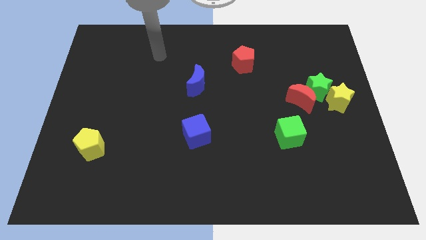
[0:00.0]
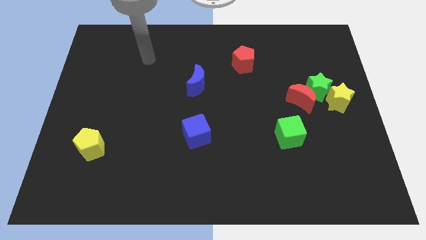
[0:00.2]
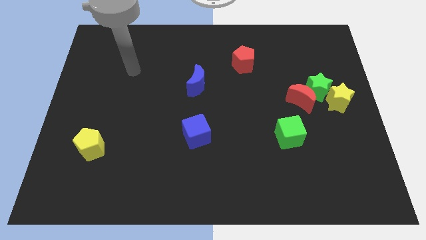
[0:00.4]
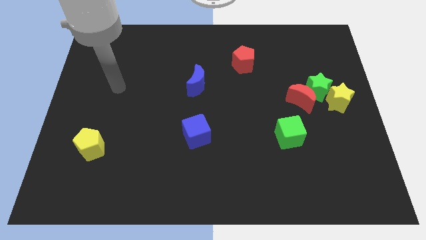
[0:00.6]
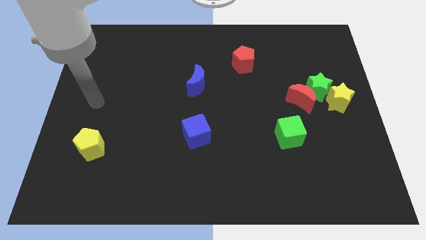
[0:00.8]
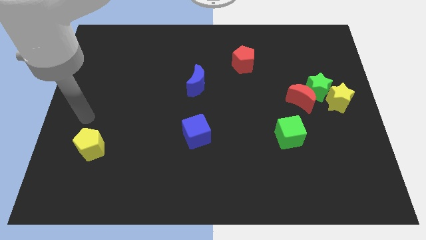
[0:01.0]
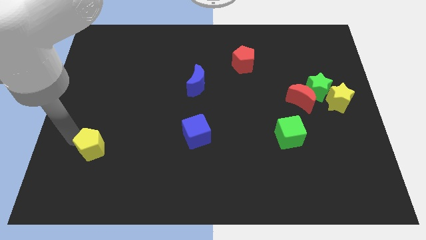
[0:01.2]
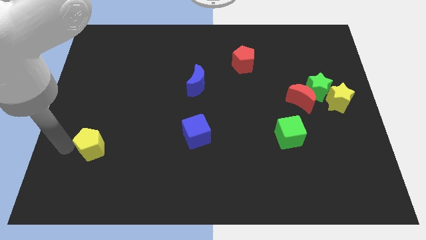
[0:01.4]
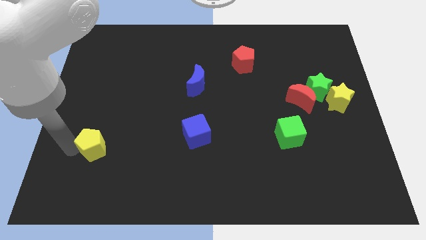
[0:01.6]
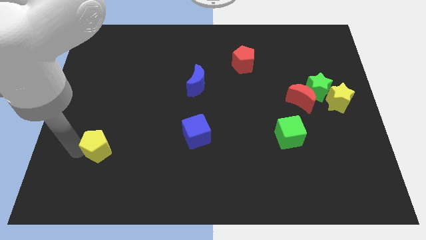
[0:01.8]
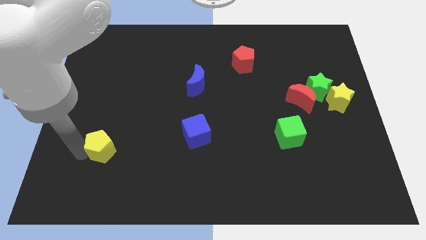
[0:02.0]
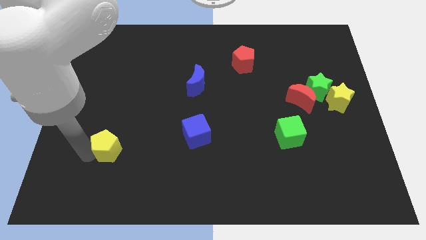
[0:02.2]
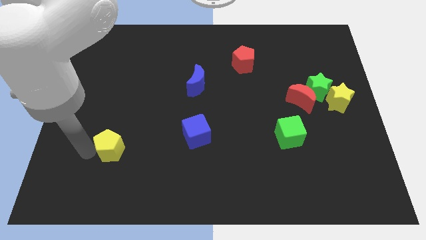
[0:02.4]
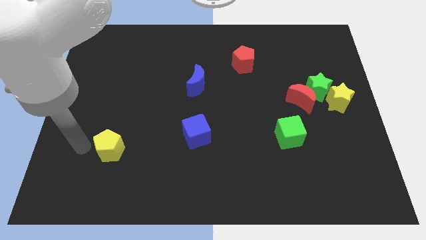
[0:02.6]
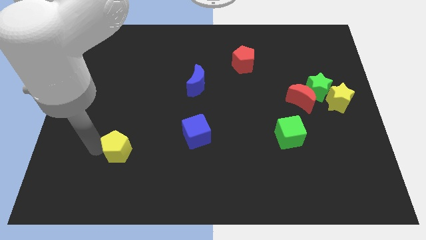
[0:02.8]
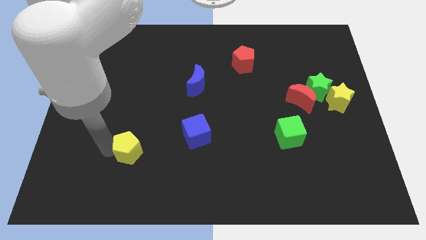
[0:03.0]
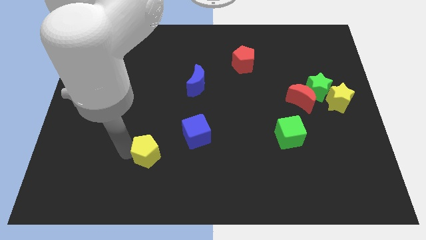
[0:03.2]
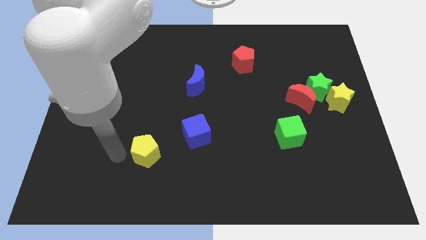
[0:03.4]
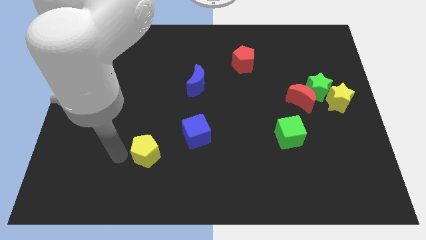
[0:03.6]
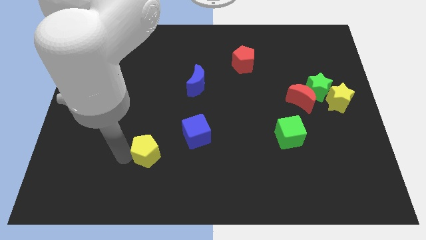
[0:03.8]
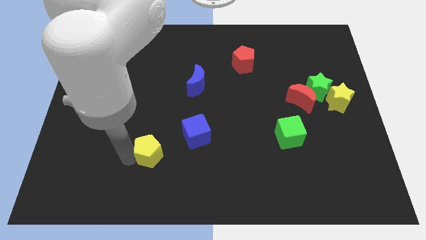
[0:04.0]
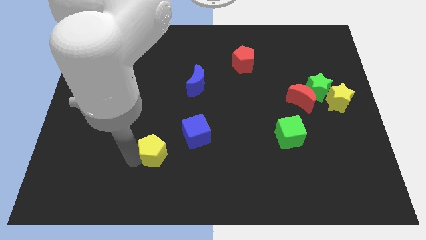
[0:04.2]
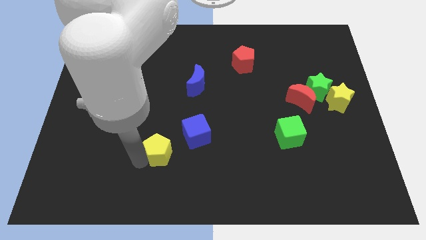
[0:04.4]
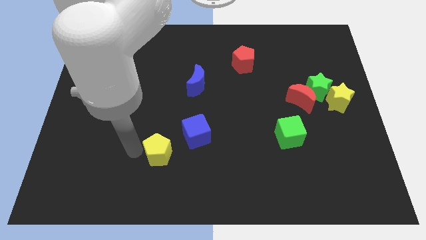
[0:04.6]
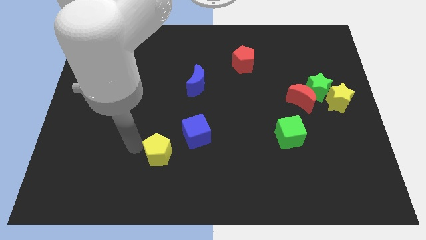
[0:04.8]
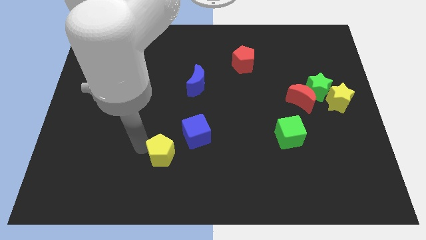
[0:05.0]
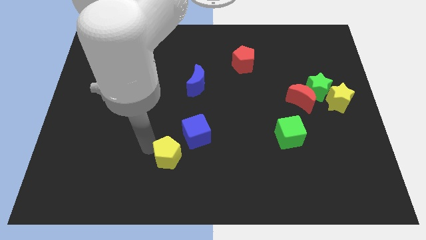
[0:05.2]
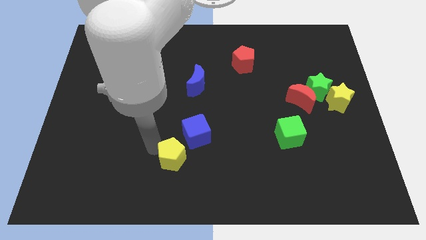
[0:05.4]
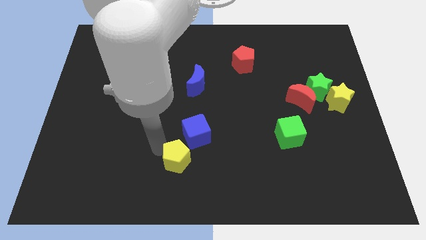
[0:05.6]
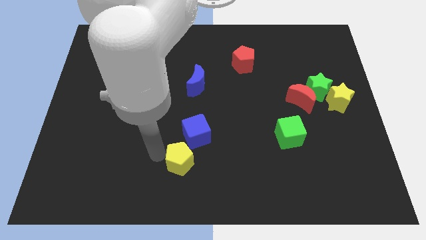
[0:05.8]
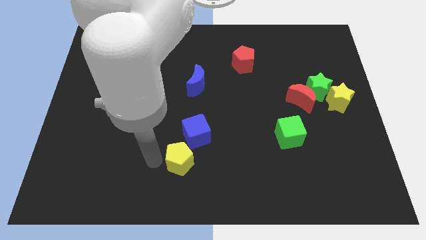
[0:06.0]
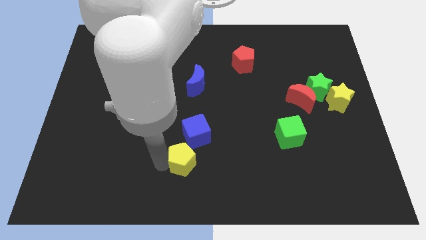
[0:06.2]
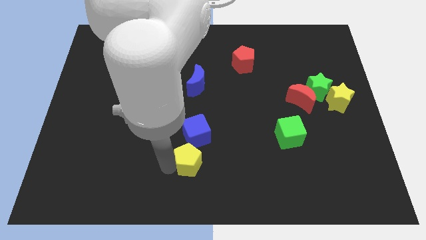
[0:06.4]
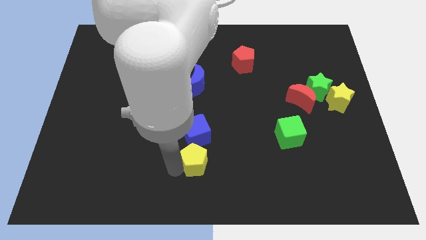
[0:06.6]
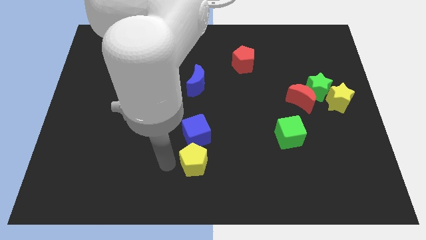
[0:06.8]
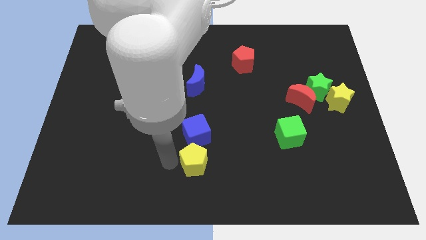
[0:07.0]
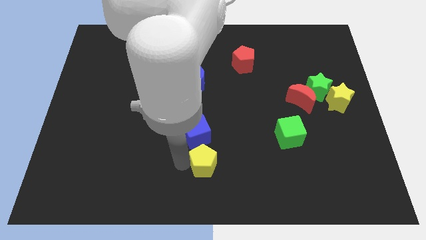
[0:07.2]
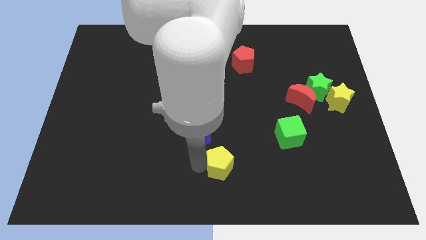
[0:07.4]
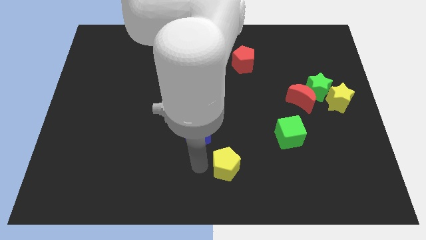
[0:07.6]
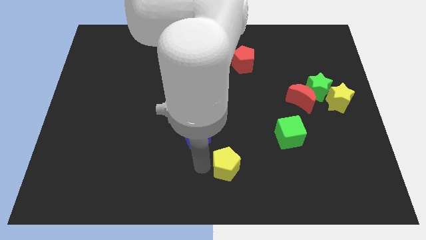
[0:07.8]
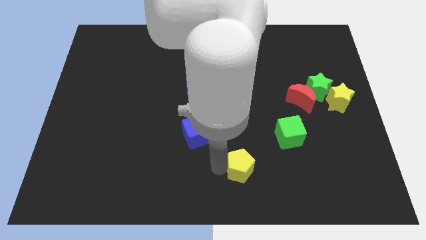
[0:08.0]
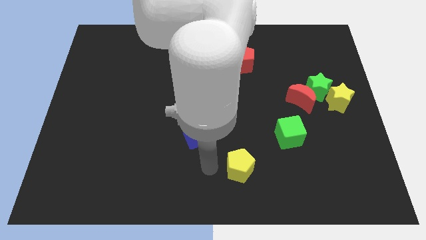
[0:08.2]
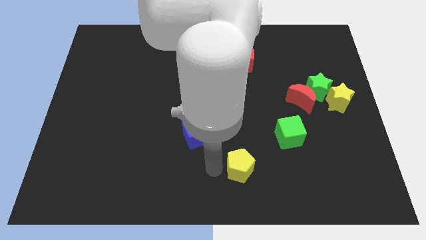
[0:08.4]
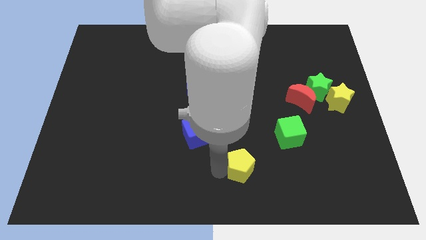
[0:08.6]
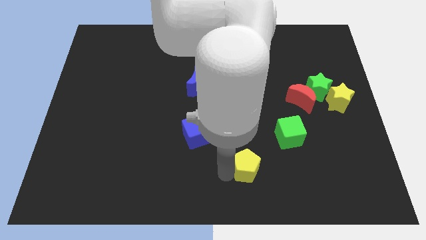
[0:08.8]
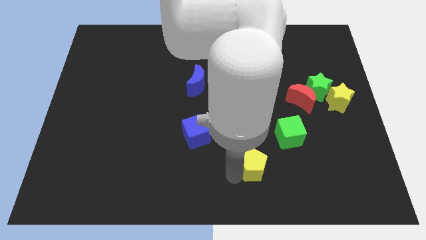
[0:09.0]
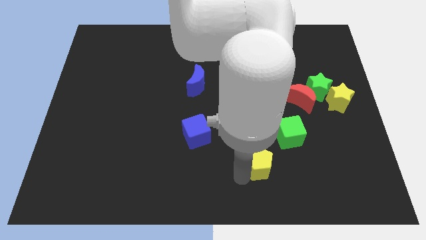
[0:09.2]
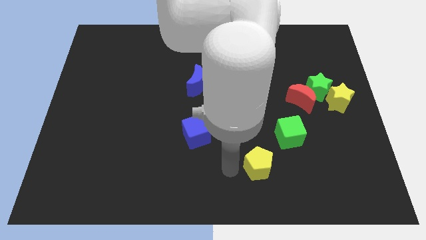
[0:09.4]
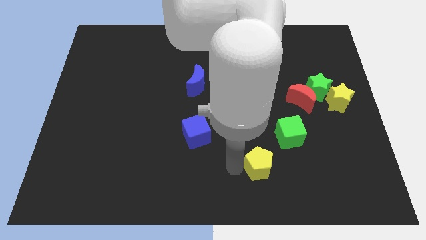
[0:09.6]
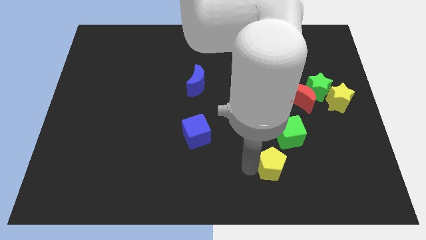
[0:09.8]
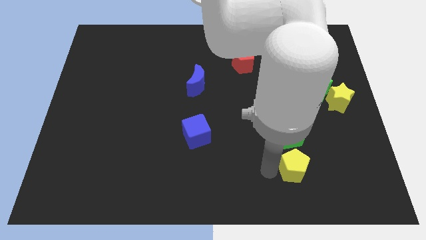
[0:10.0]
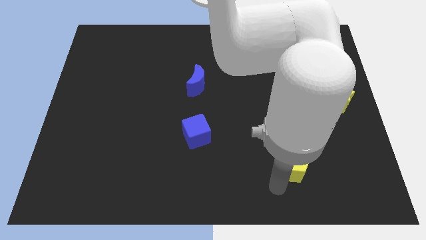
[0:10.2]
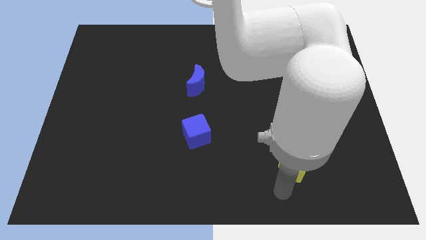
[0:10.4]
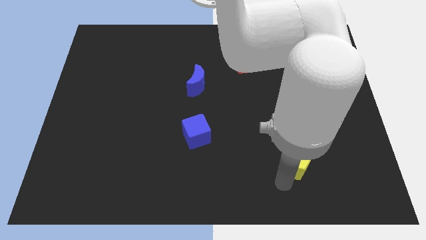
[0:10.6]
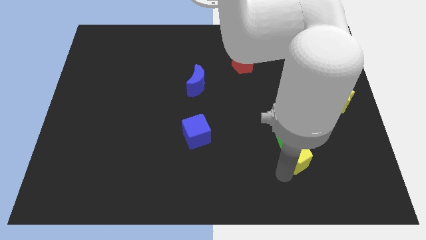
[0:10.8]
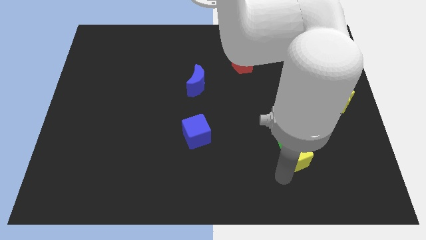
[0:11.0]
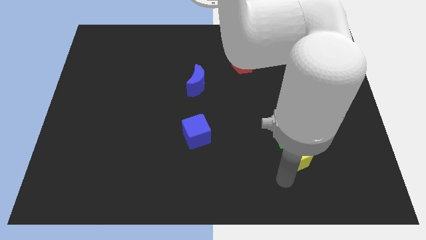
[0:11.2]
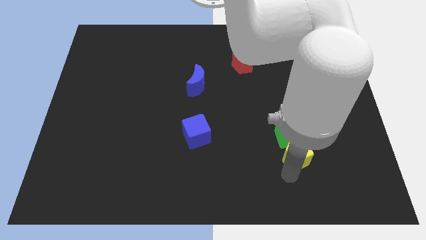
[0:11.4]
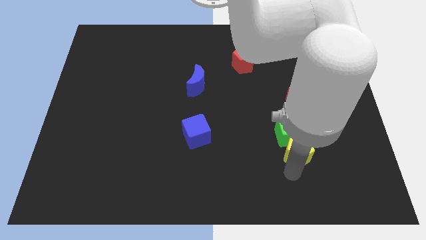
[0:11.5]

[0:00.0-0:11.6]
push the yellow pentagon below the red moon
